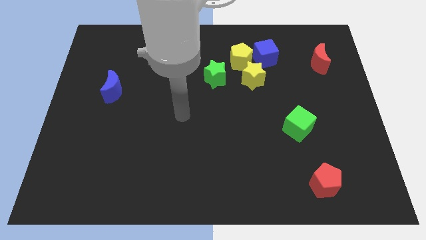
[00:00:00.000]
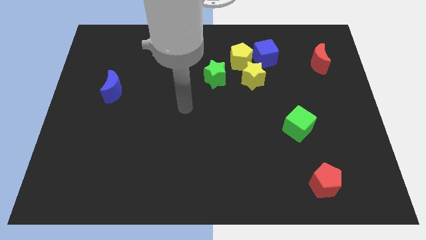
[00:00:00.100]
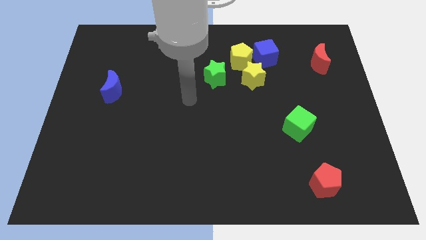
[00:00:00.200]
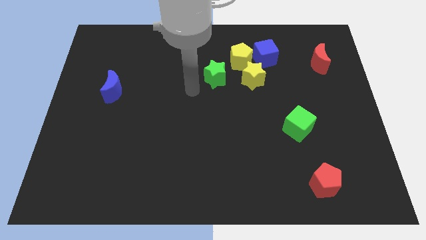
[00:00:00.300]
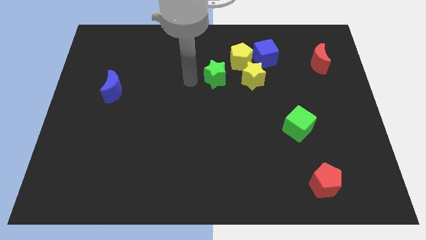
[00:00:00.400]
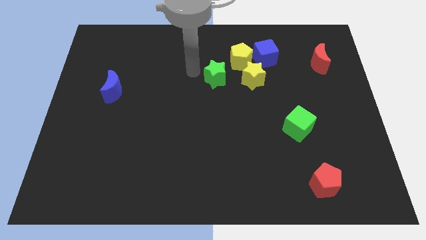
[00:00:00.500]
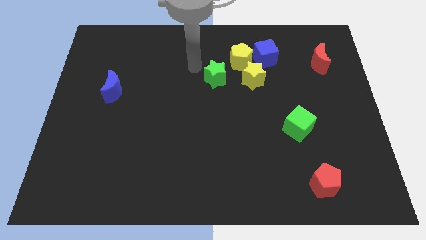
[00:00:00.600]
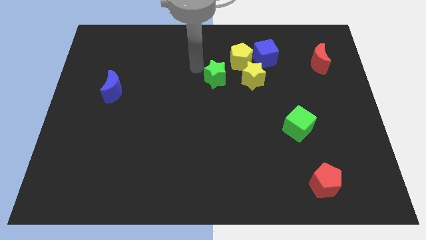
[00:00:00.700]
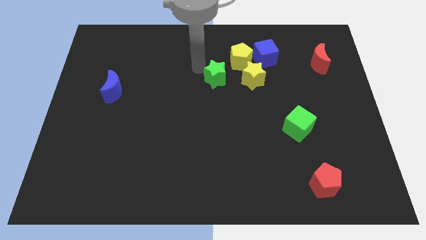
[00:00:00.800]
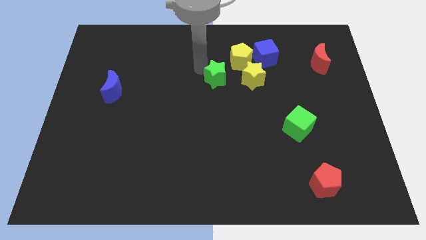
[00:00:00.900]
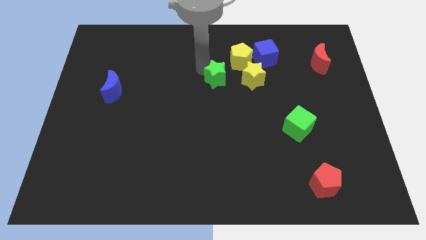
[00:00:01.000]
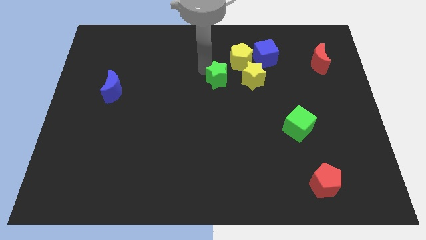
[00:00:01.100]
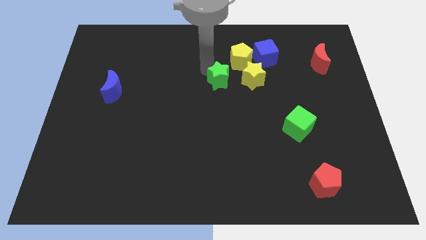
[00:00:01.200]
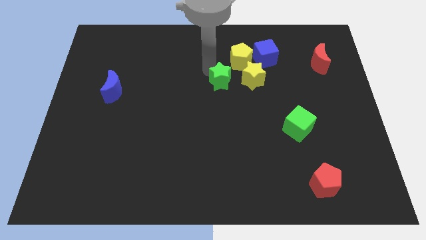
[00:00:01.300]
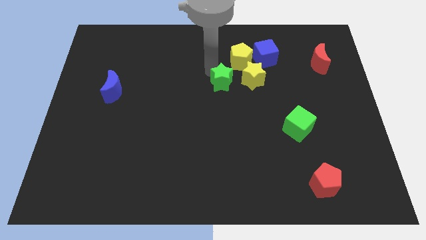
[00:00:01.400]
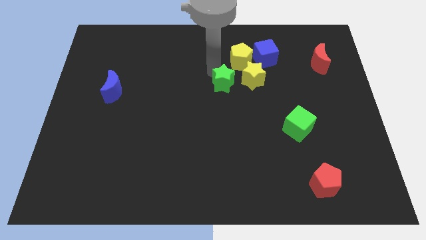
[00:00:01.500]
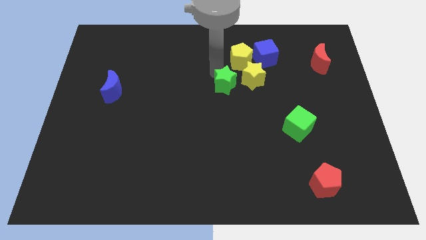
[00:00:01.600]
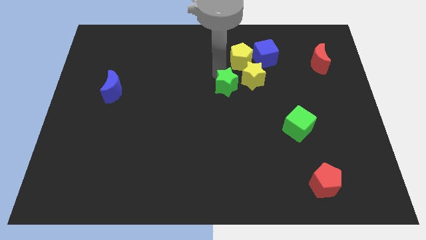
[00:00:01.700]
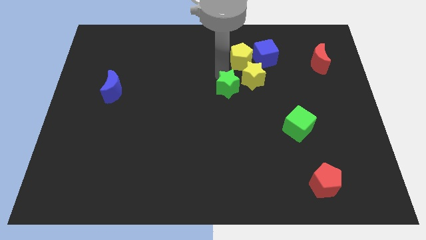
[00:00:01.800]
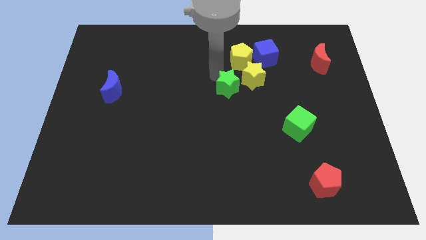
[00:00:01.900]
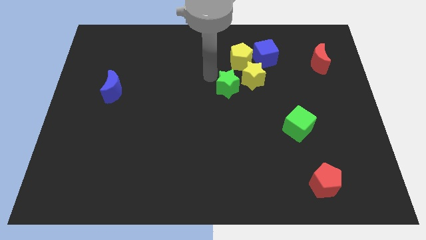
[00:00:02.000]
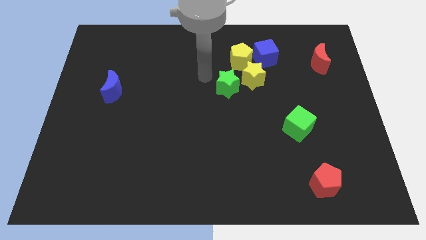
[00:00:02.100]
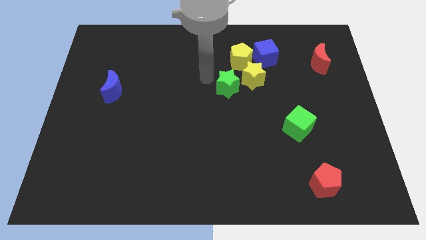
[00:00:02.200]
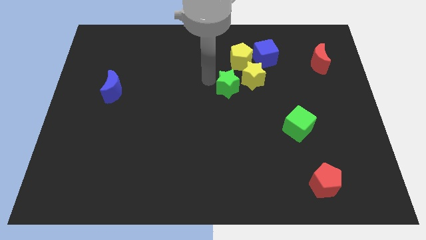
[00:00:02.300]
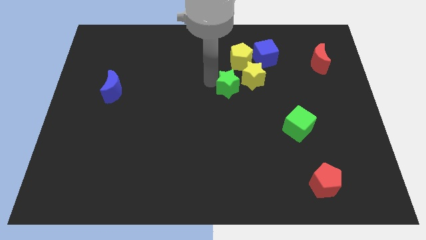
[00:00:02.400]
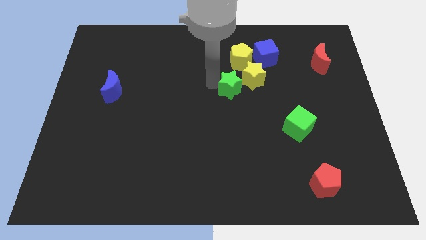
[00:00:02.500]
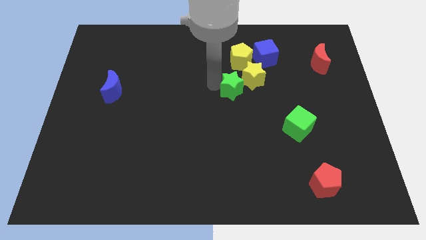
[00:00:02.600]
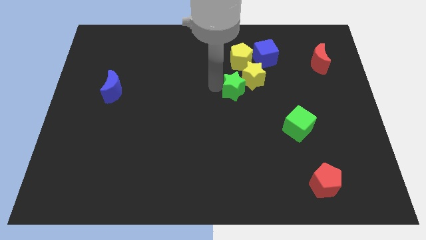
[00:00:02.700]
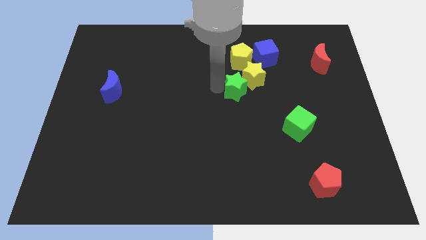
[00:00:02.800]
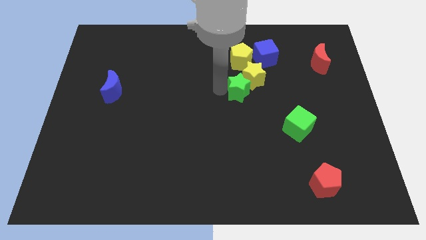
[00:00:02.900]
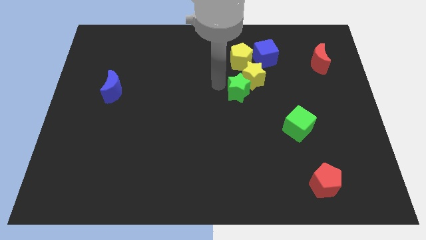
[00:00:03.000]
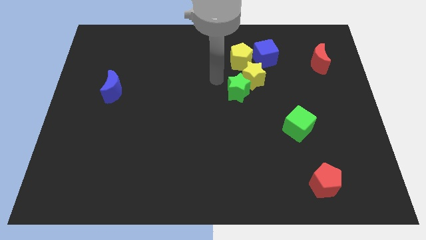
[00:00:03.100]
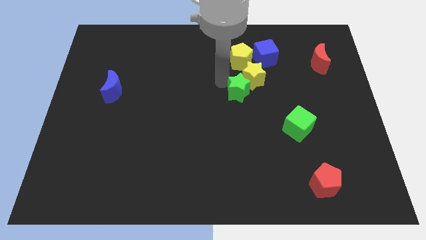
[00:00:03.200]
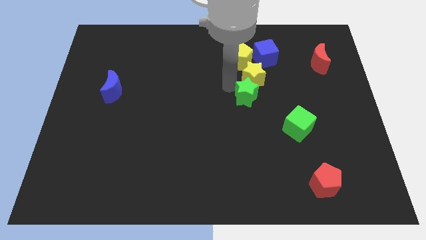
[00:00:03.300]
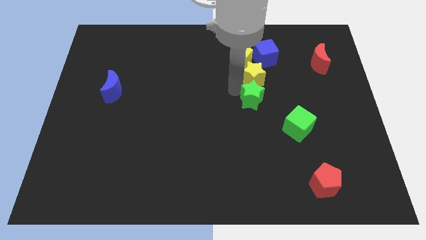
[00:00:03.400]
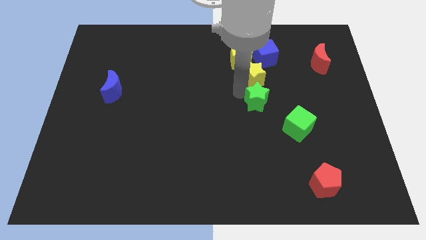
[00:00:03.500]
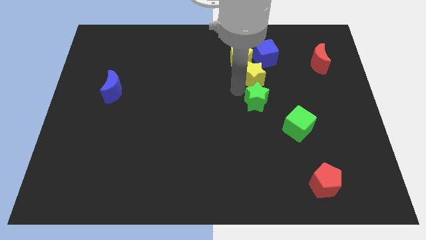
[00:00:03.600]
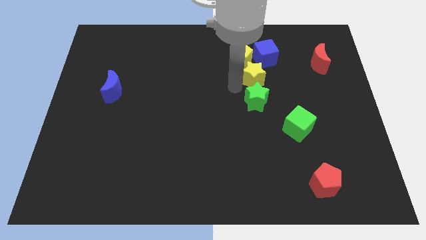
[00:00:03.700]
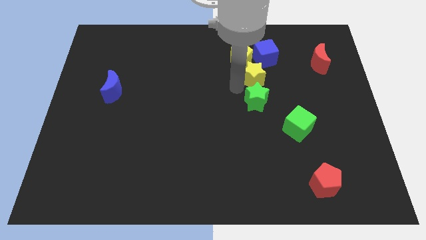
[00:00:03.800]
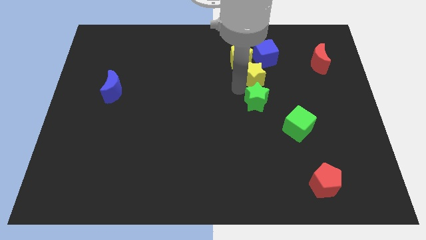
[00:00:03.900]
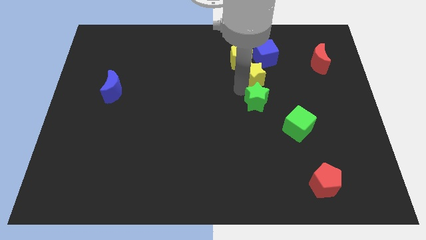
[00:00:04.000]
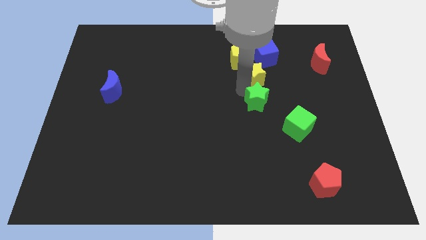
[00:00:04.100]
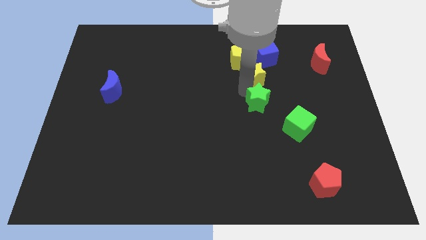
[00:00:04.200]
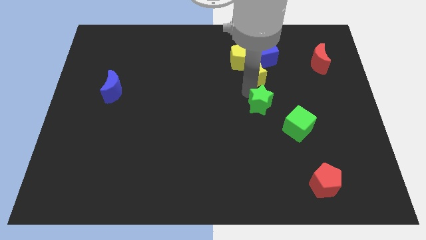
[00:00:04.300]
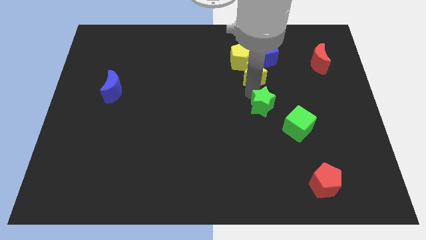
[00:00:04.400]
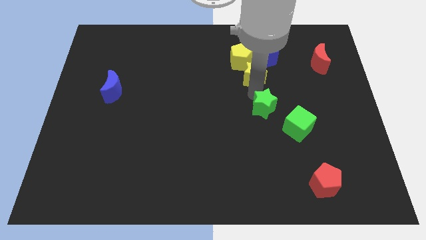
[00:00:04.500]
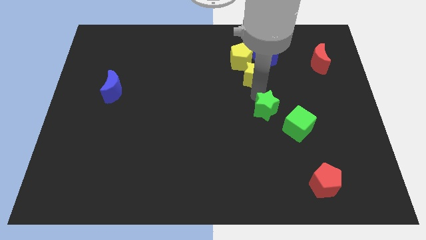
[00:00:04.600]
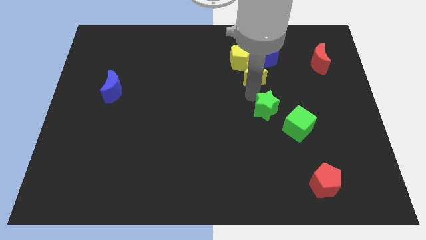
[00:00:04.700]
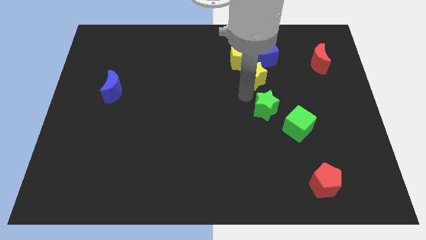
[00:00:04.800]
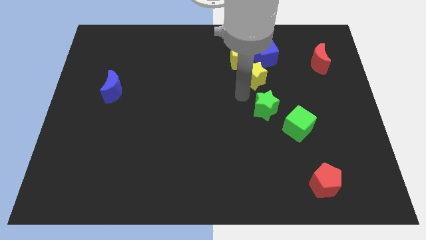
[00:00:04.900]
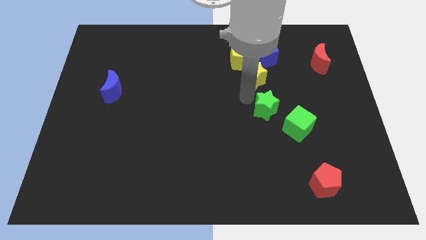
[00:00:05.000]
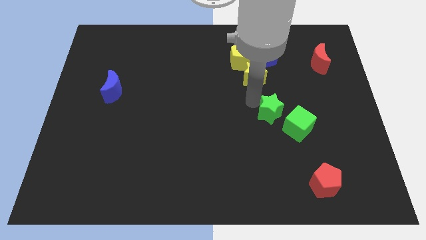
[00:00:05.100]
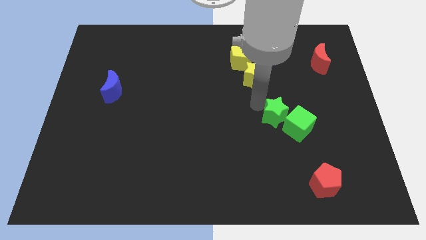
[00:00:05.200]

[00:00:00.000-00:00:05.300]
put the green star to the green cube

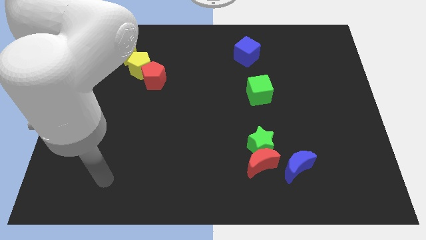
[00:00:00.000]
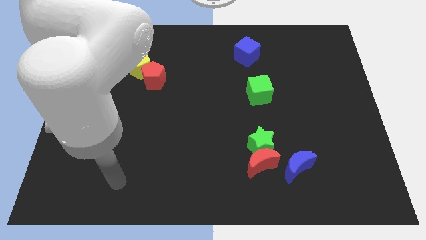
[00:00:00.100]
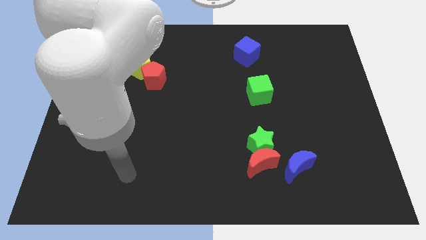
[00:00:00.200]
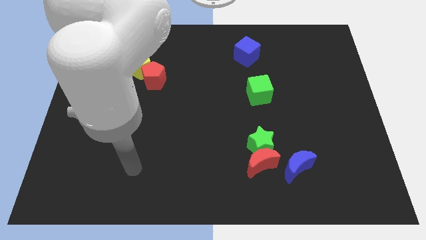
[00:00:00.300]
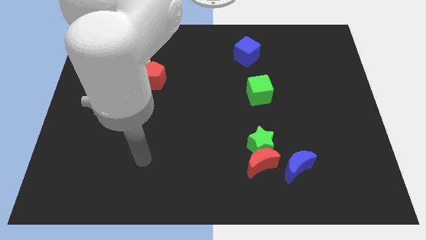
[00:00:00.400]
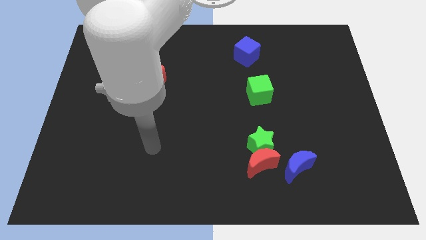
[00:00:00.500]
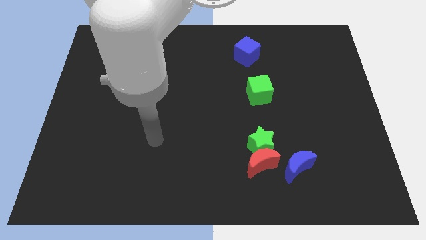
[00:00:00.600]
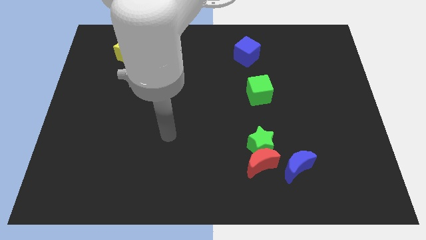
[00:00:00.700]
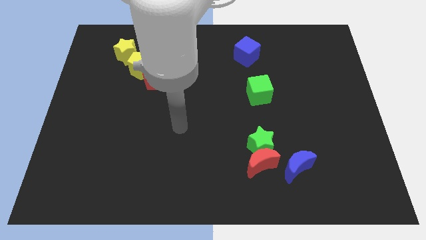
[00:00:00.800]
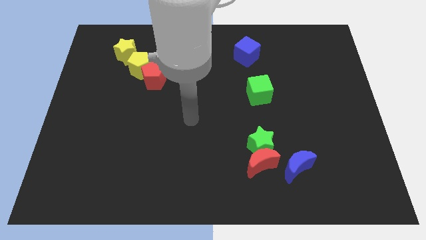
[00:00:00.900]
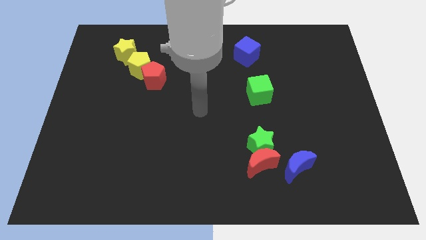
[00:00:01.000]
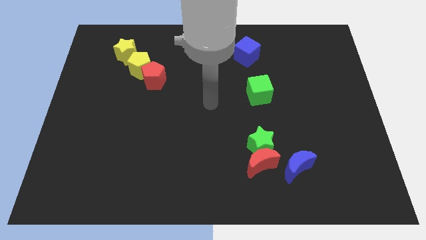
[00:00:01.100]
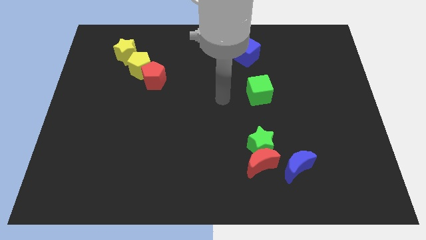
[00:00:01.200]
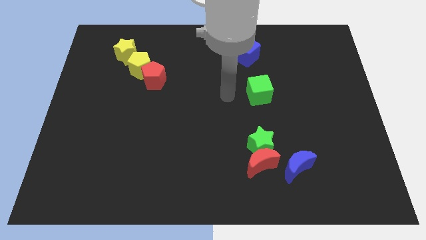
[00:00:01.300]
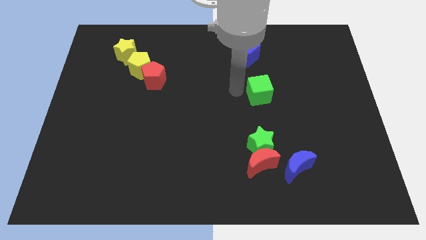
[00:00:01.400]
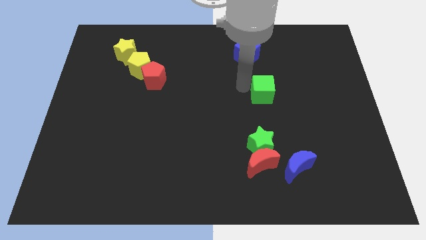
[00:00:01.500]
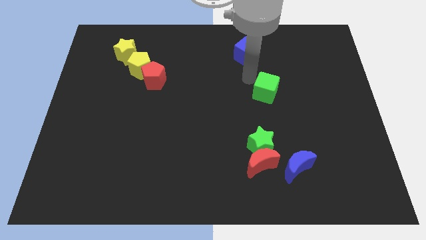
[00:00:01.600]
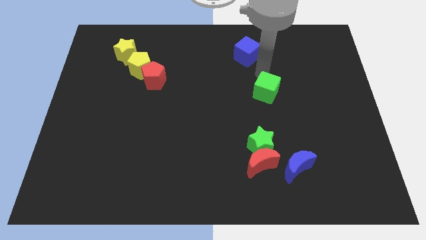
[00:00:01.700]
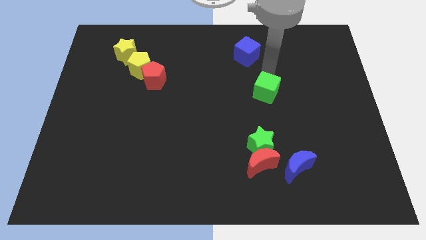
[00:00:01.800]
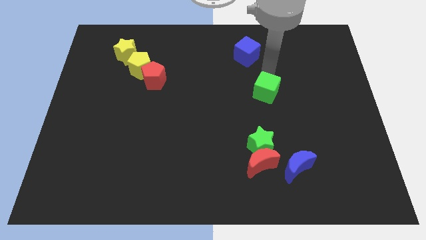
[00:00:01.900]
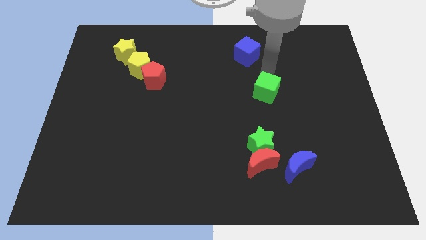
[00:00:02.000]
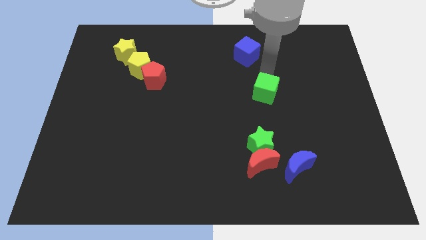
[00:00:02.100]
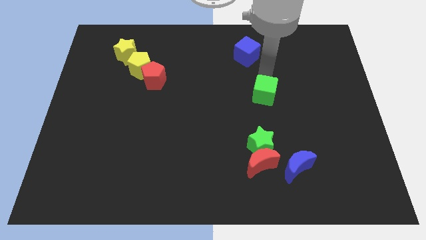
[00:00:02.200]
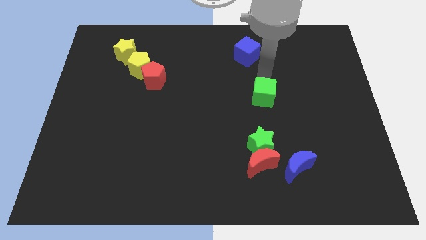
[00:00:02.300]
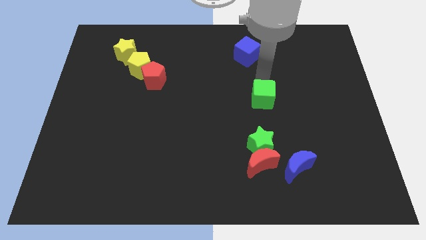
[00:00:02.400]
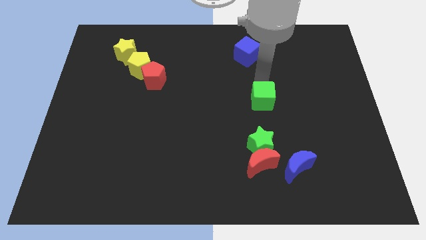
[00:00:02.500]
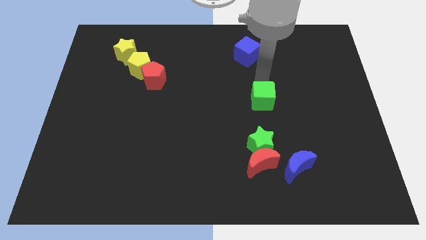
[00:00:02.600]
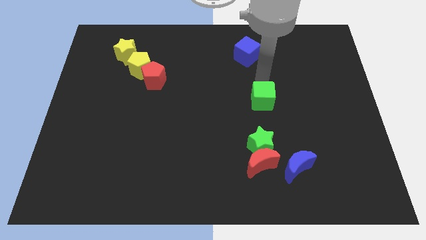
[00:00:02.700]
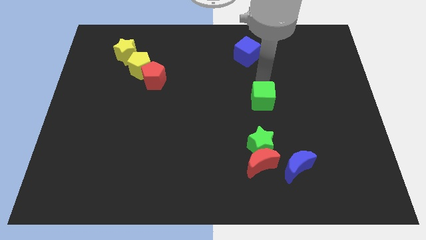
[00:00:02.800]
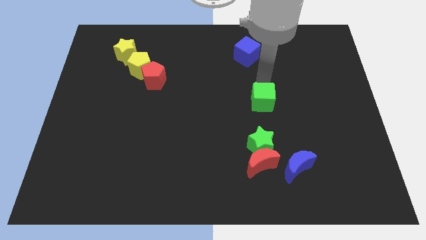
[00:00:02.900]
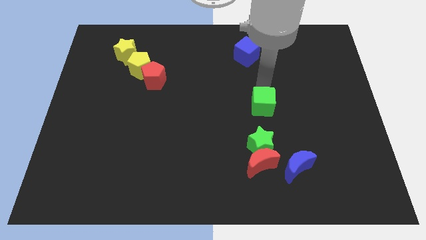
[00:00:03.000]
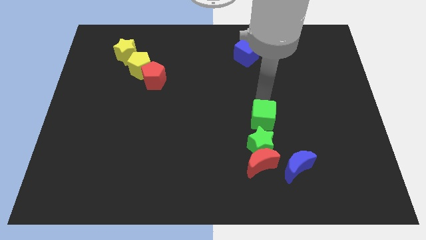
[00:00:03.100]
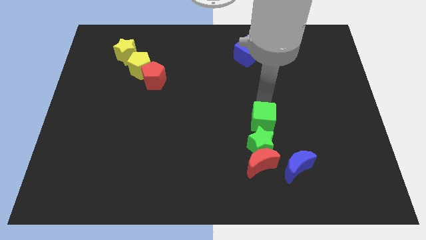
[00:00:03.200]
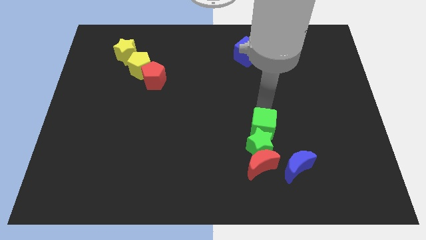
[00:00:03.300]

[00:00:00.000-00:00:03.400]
push the green cube to the green star
